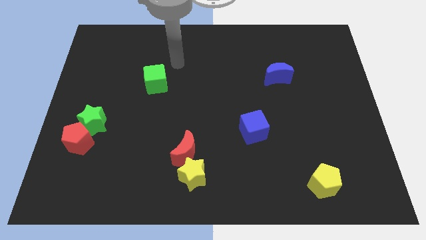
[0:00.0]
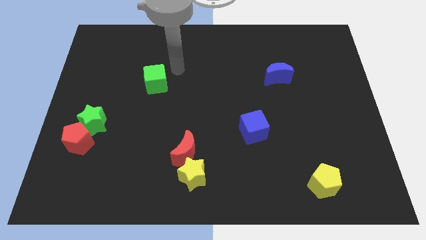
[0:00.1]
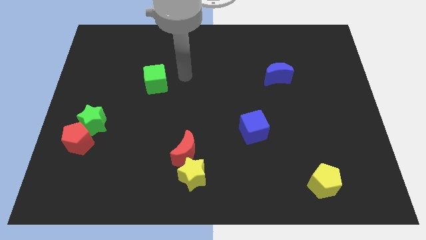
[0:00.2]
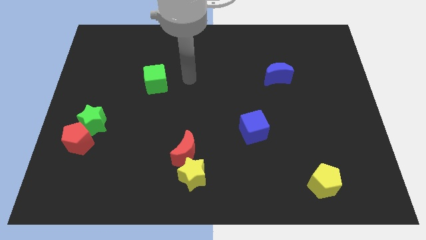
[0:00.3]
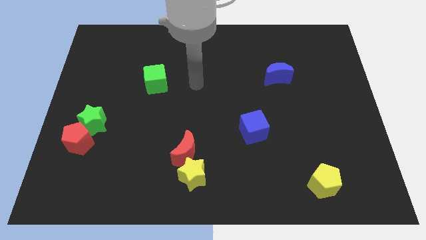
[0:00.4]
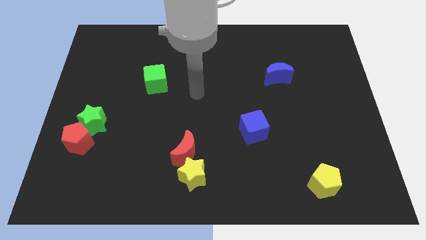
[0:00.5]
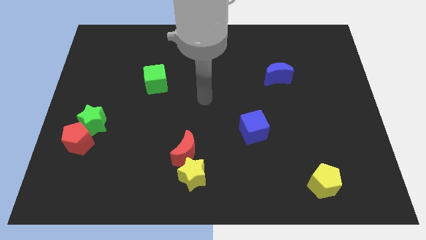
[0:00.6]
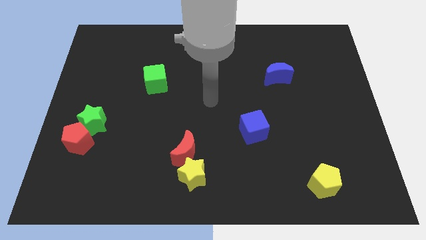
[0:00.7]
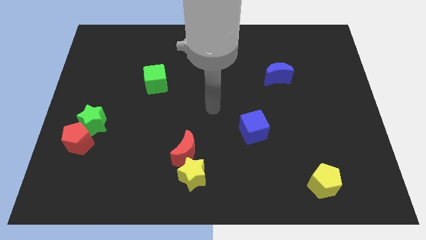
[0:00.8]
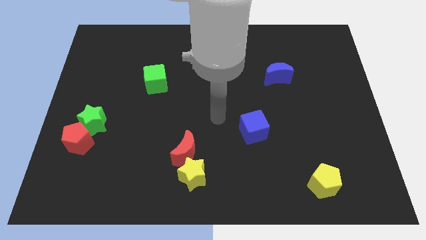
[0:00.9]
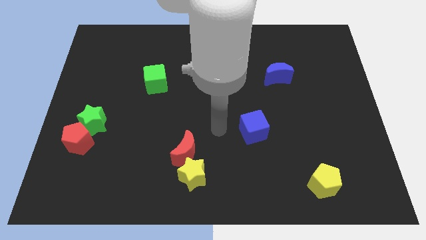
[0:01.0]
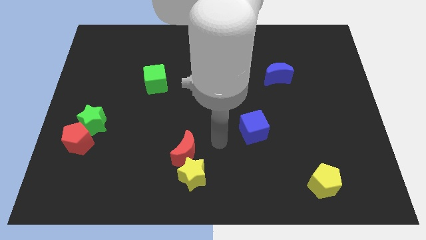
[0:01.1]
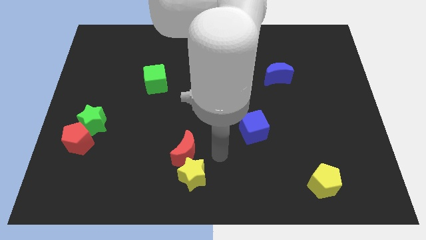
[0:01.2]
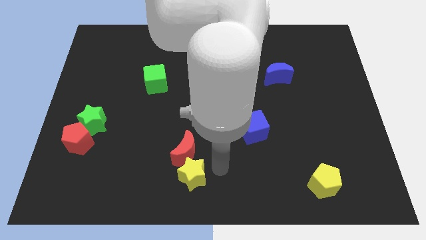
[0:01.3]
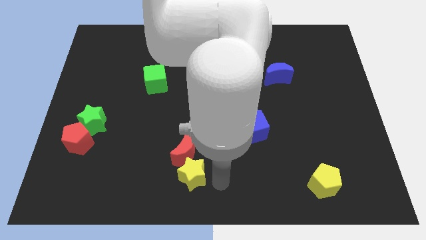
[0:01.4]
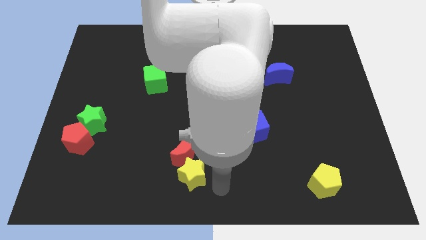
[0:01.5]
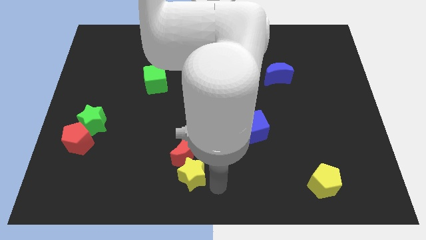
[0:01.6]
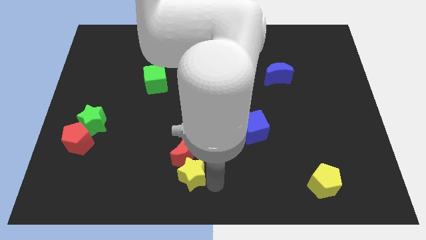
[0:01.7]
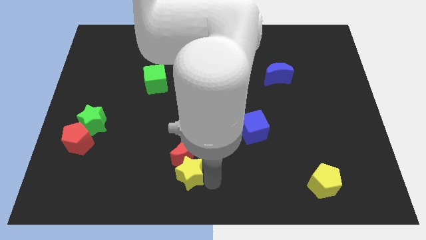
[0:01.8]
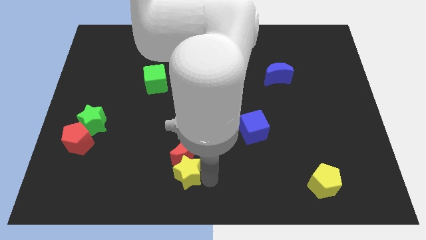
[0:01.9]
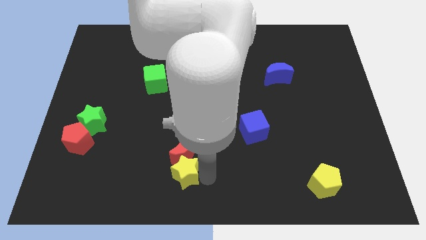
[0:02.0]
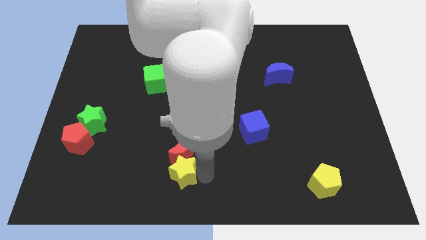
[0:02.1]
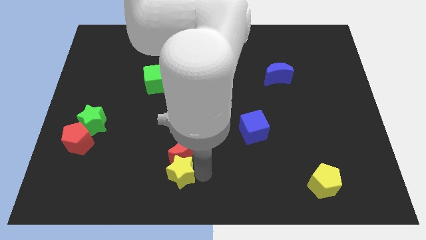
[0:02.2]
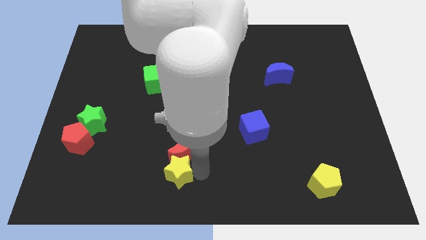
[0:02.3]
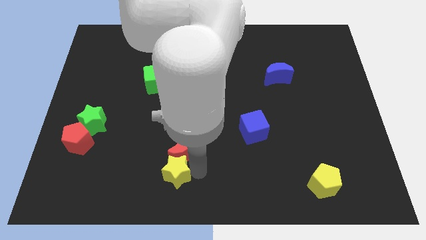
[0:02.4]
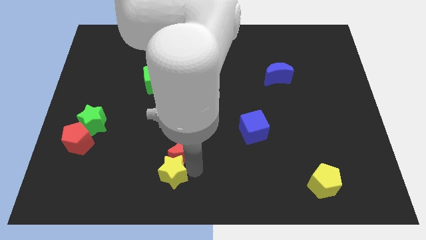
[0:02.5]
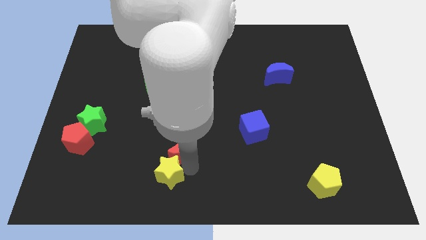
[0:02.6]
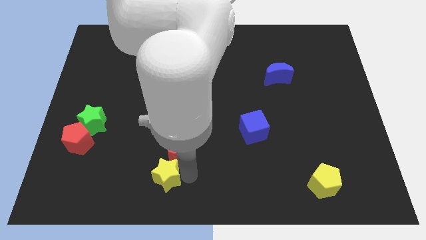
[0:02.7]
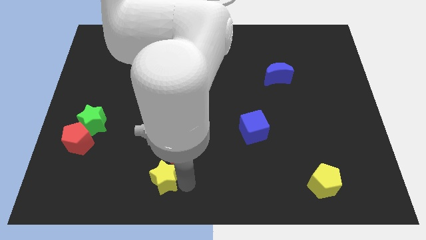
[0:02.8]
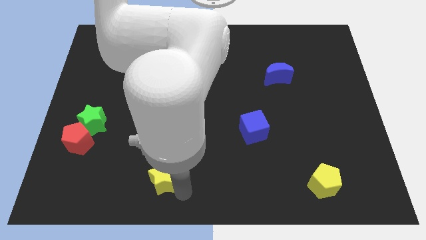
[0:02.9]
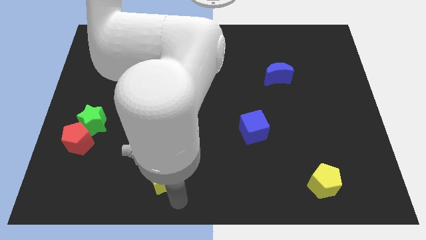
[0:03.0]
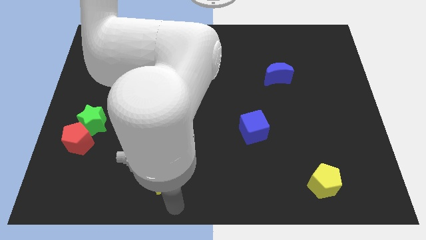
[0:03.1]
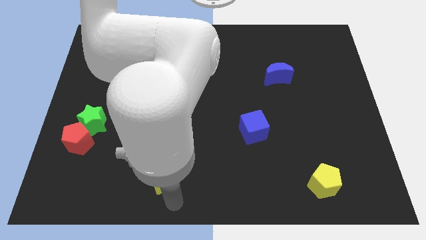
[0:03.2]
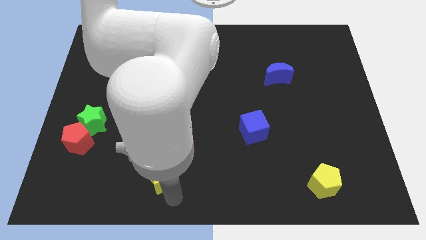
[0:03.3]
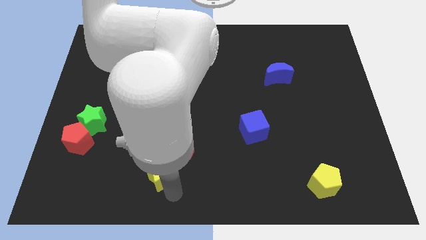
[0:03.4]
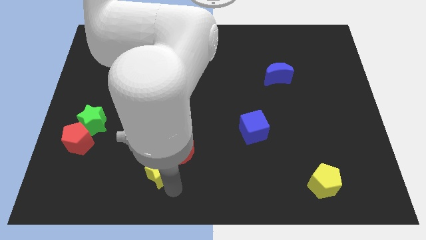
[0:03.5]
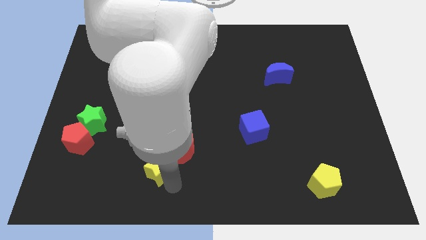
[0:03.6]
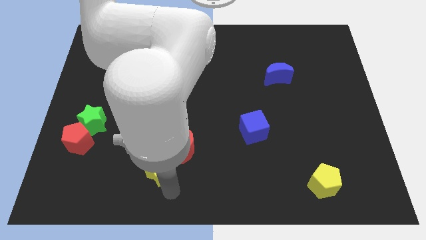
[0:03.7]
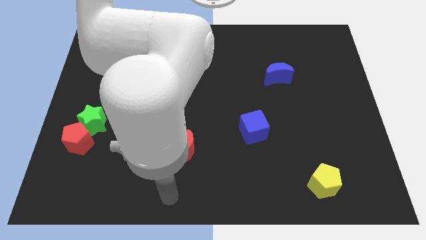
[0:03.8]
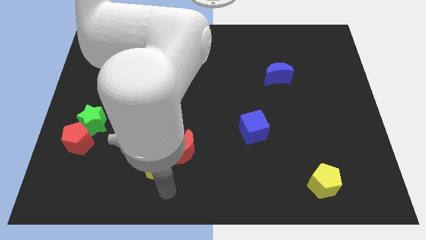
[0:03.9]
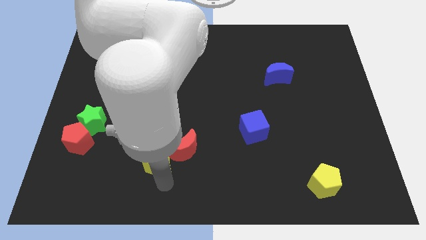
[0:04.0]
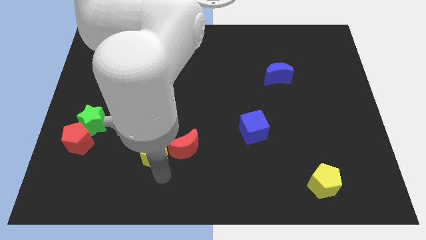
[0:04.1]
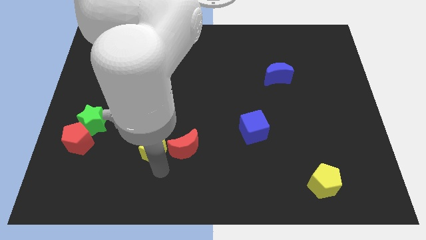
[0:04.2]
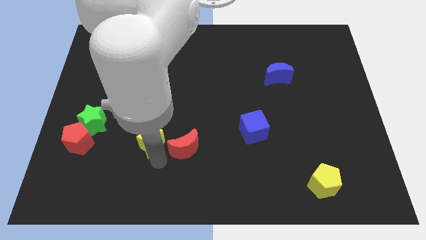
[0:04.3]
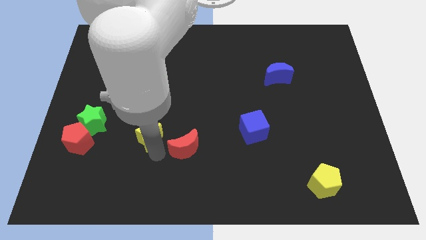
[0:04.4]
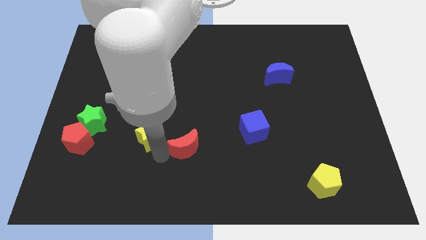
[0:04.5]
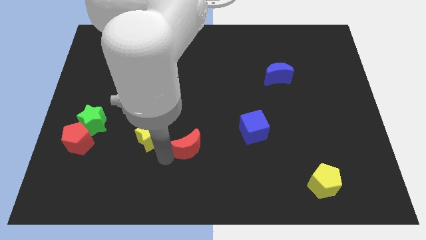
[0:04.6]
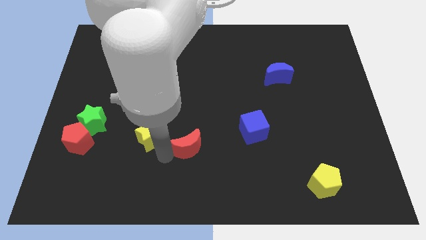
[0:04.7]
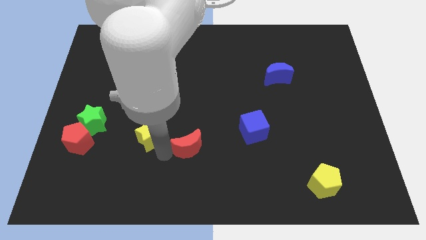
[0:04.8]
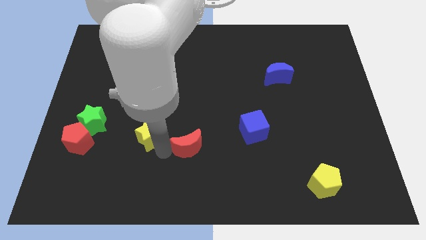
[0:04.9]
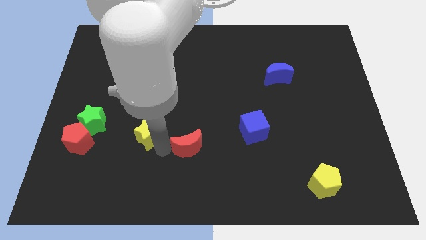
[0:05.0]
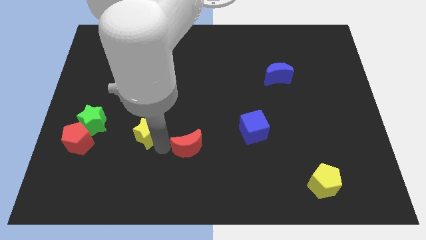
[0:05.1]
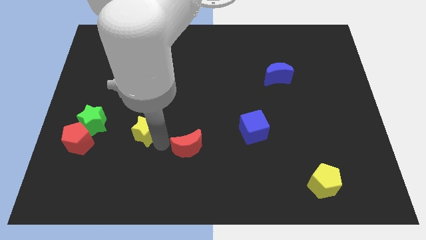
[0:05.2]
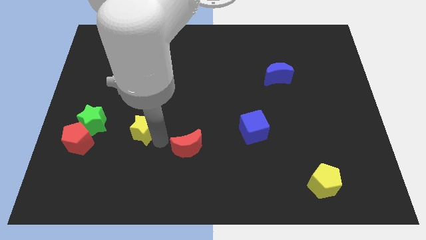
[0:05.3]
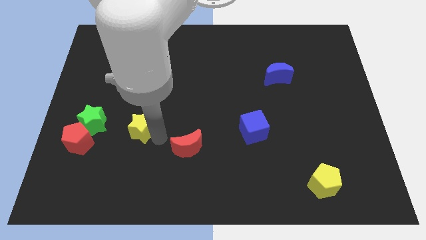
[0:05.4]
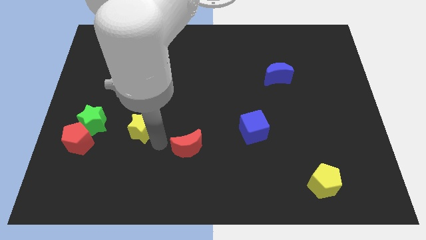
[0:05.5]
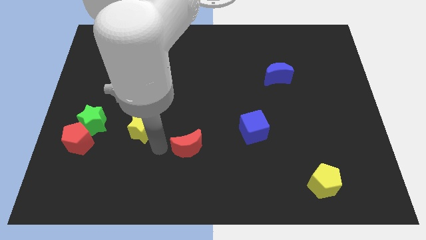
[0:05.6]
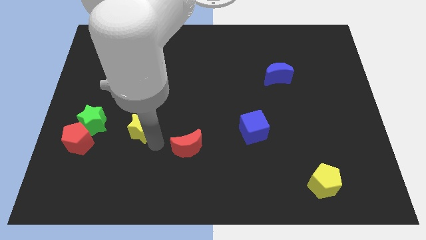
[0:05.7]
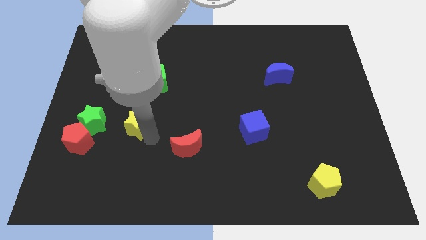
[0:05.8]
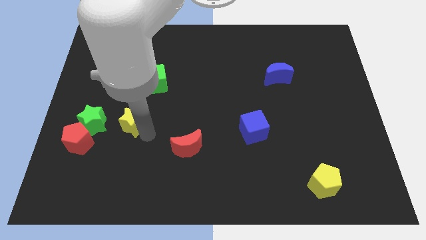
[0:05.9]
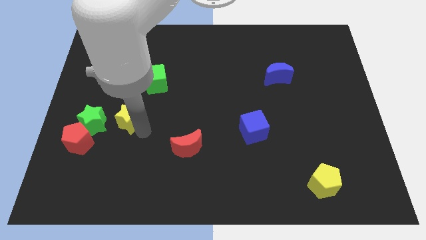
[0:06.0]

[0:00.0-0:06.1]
push the yellow star up and to the left

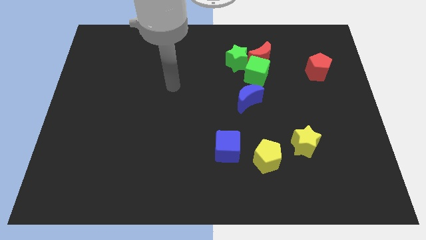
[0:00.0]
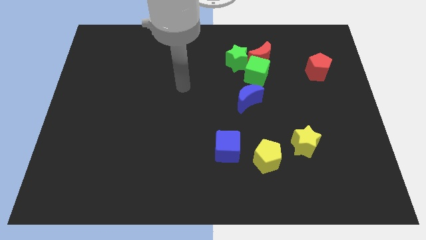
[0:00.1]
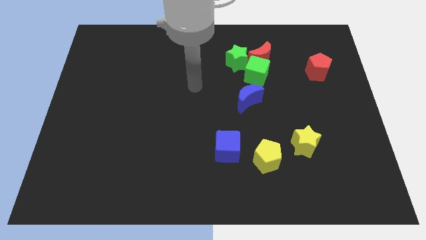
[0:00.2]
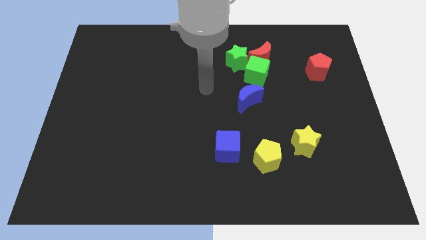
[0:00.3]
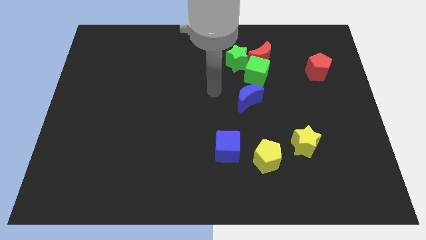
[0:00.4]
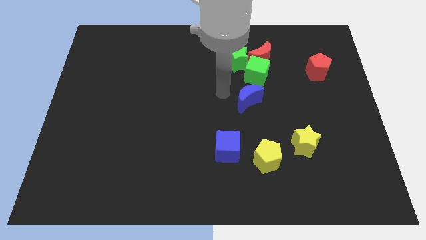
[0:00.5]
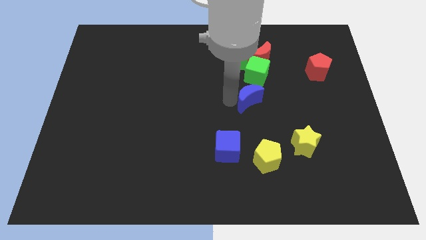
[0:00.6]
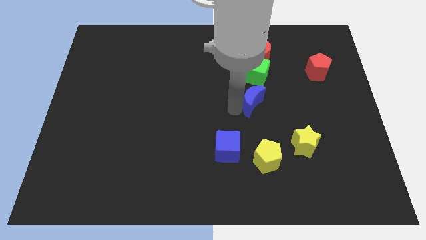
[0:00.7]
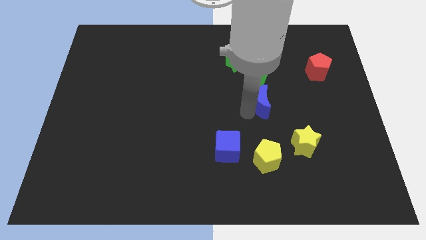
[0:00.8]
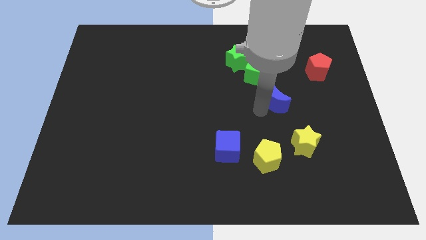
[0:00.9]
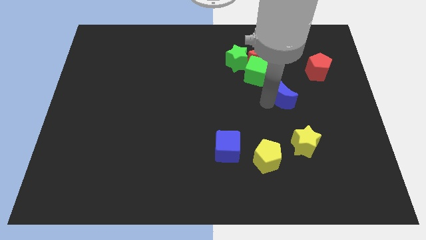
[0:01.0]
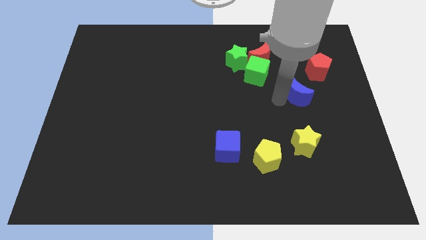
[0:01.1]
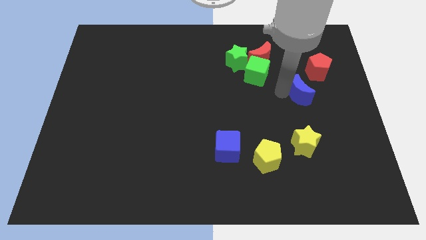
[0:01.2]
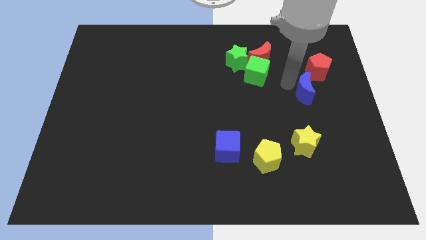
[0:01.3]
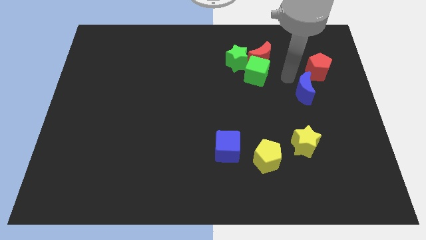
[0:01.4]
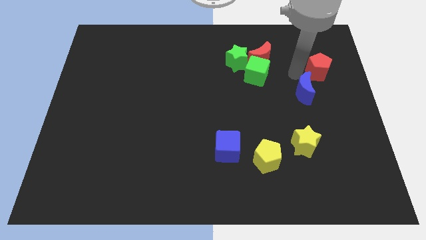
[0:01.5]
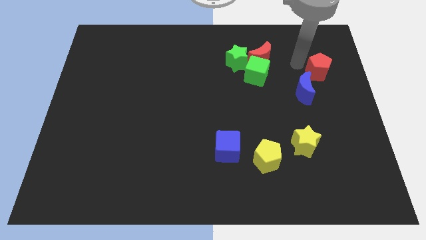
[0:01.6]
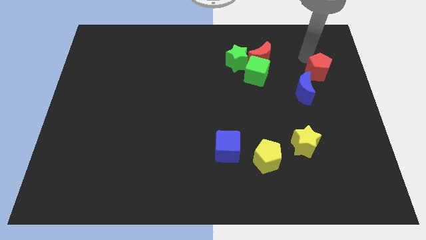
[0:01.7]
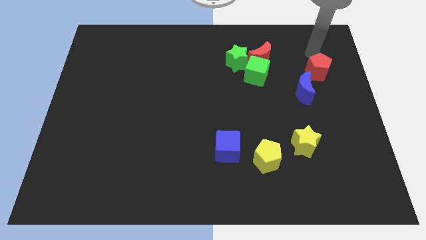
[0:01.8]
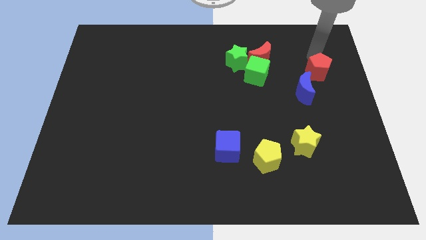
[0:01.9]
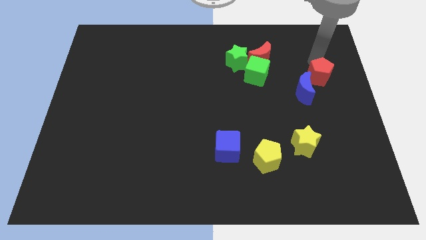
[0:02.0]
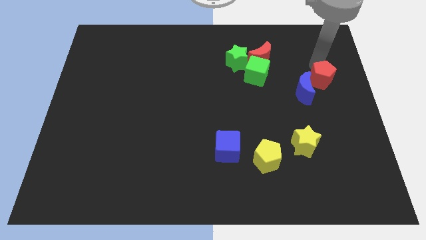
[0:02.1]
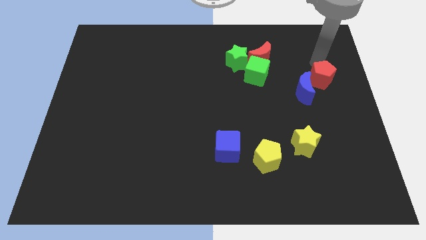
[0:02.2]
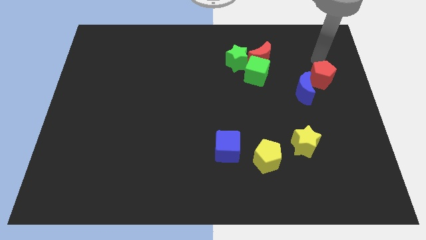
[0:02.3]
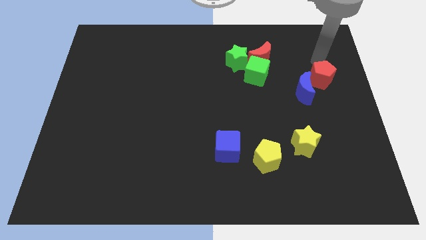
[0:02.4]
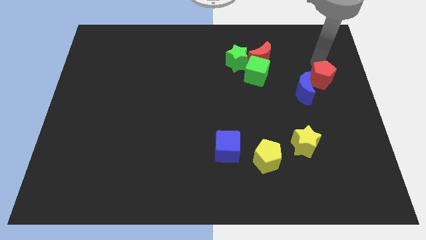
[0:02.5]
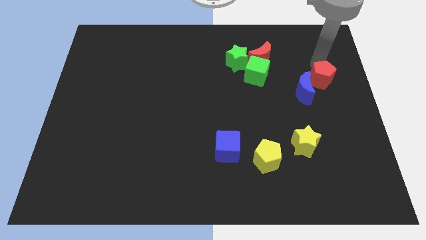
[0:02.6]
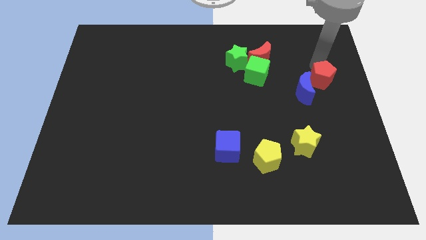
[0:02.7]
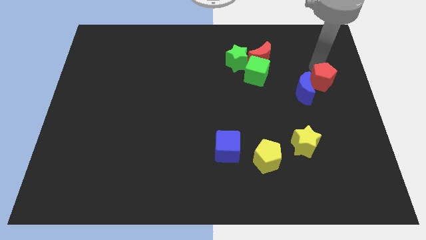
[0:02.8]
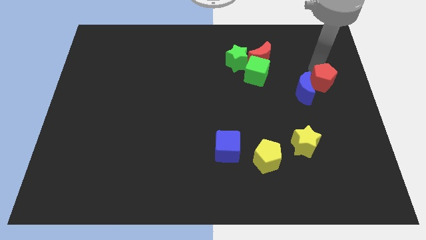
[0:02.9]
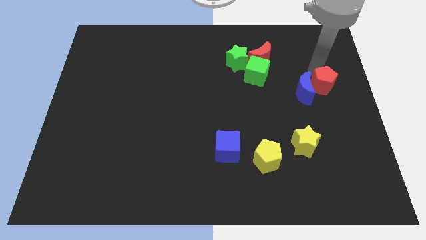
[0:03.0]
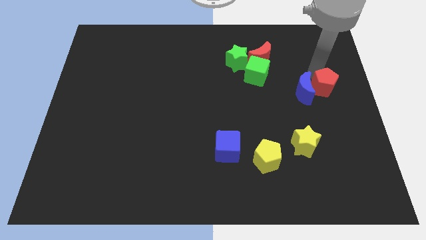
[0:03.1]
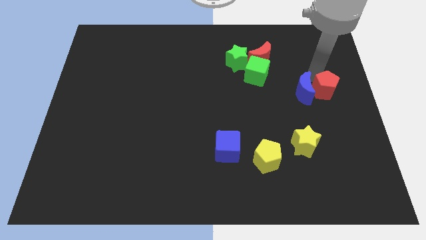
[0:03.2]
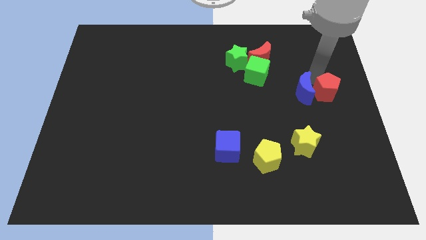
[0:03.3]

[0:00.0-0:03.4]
slightly move the red pentagon down
